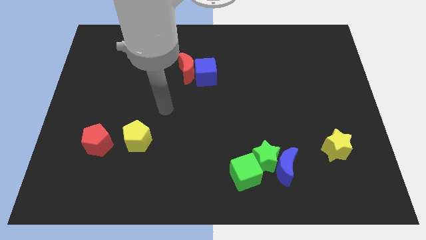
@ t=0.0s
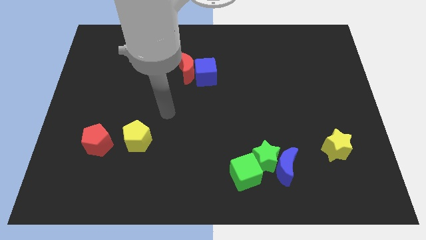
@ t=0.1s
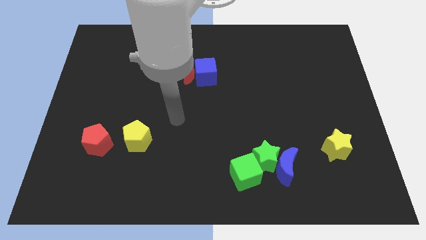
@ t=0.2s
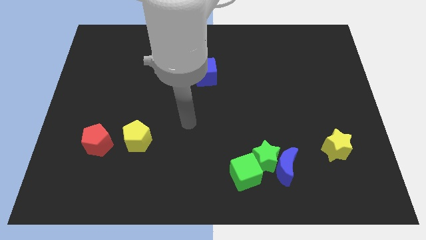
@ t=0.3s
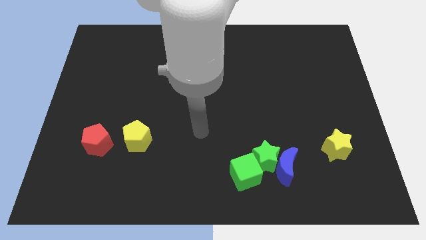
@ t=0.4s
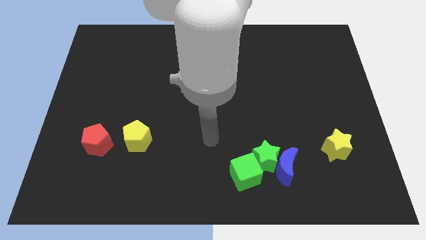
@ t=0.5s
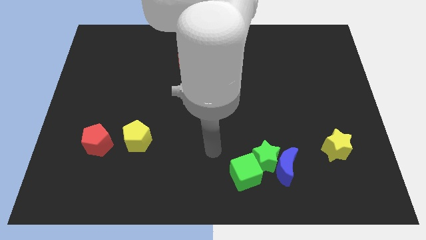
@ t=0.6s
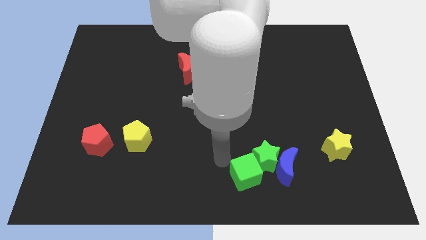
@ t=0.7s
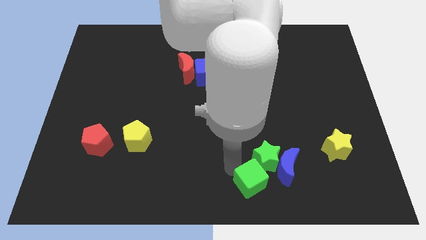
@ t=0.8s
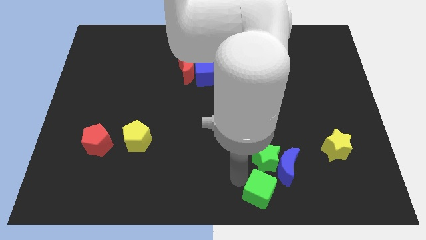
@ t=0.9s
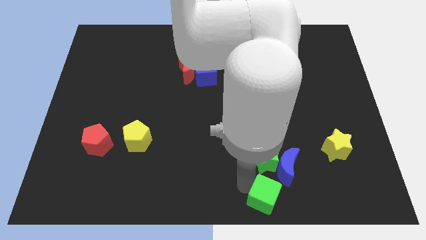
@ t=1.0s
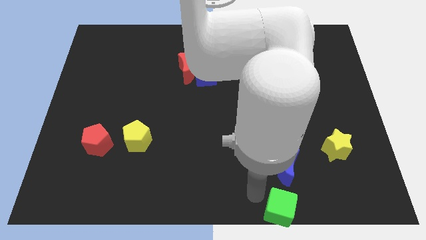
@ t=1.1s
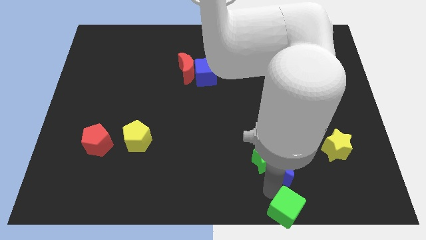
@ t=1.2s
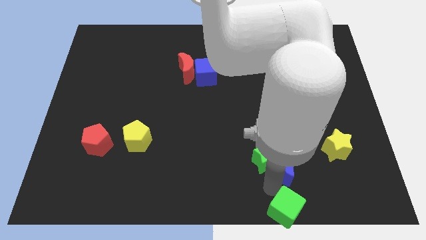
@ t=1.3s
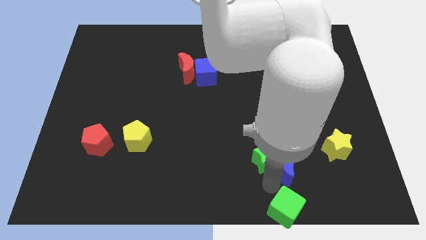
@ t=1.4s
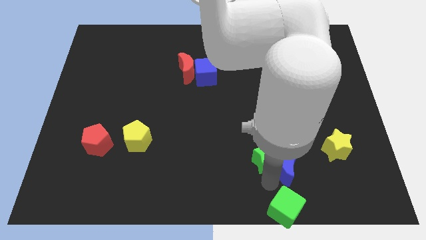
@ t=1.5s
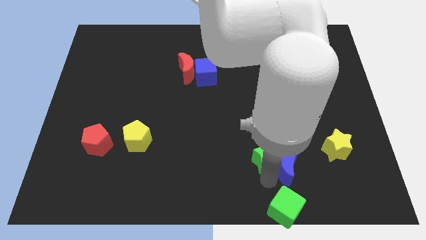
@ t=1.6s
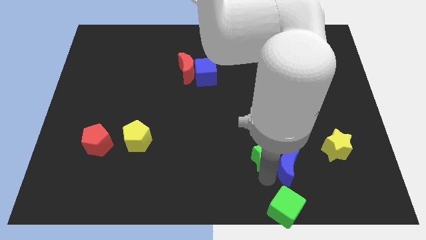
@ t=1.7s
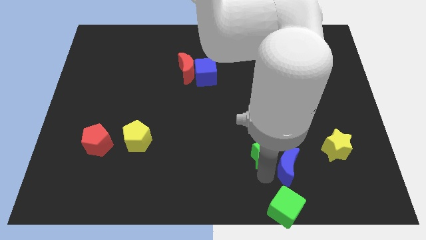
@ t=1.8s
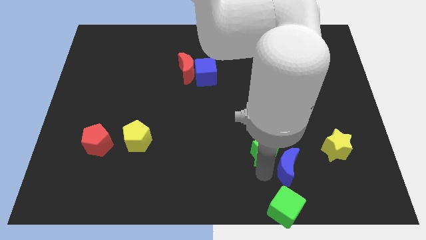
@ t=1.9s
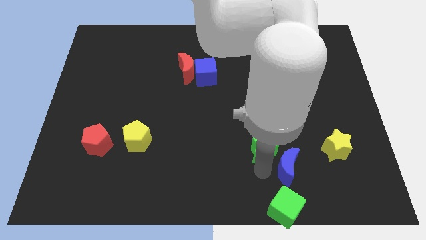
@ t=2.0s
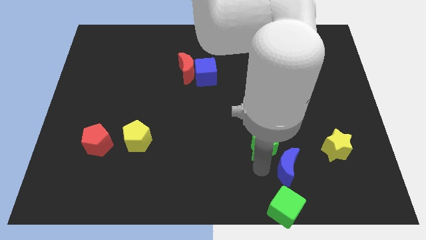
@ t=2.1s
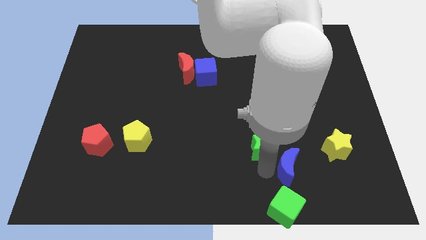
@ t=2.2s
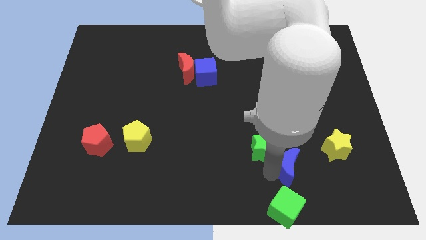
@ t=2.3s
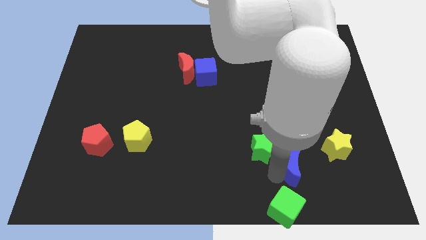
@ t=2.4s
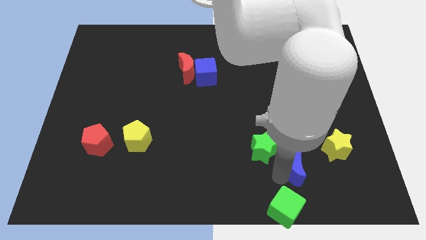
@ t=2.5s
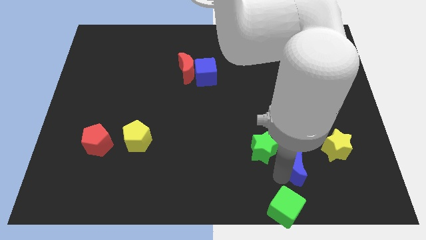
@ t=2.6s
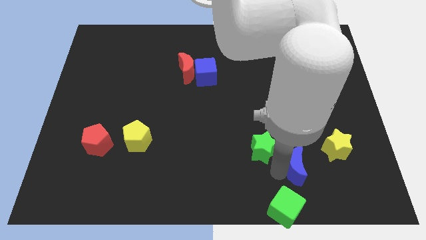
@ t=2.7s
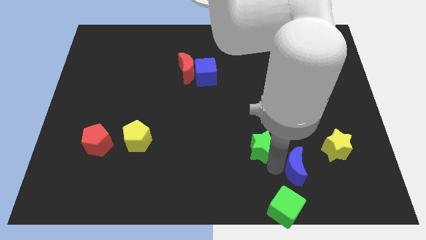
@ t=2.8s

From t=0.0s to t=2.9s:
pull the green star apart from the blue moon and green cube

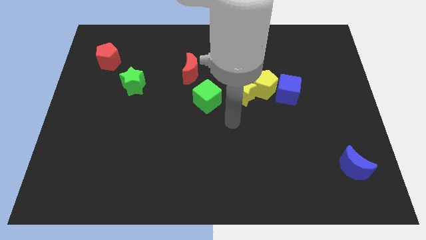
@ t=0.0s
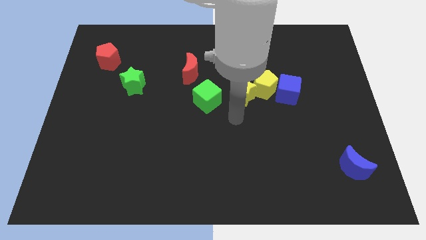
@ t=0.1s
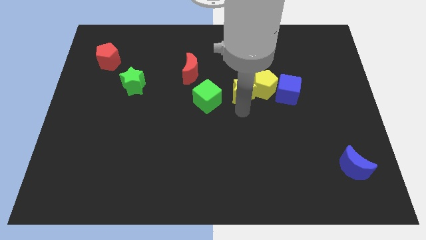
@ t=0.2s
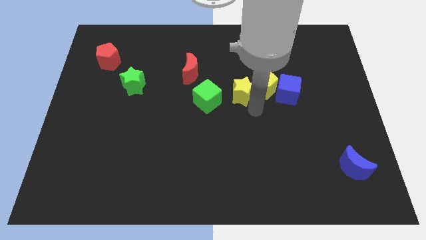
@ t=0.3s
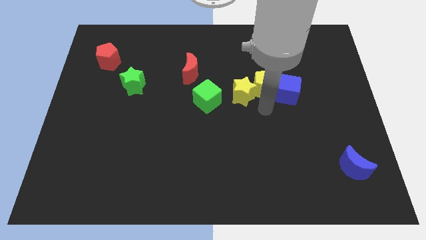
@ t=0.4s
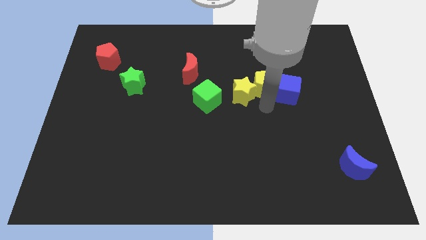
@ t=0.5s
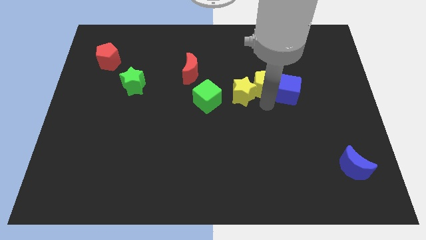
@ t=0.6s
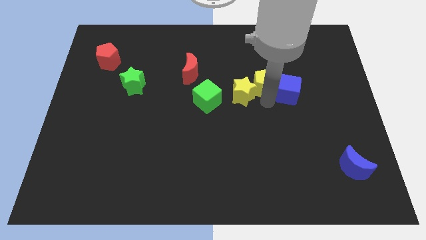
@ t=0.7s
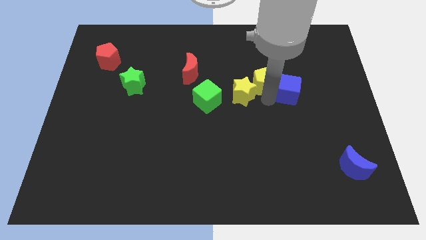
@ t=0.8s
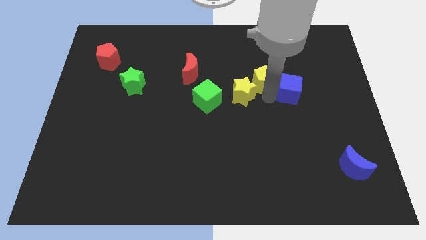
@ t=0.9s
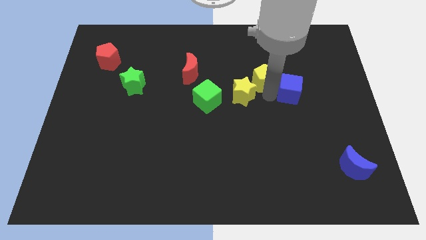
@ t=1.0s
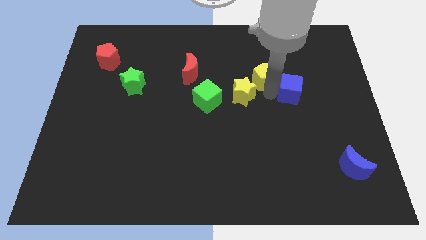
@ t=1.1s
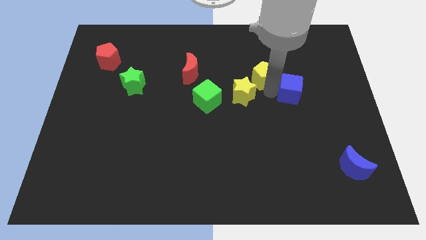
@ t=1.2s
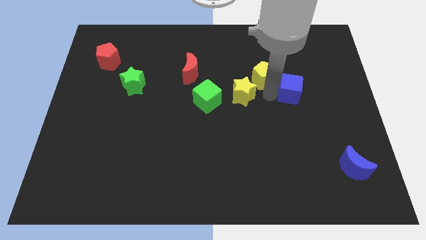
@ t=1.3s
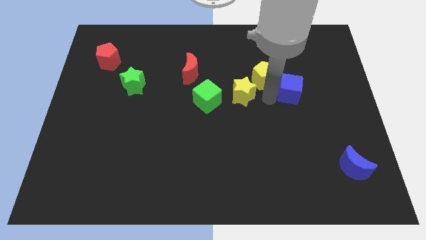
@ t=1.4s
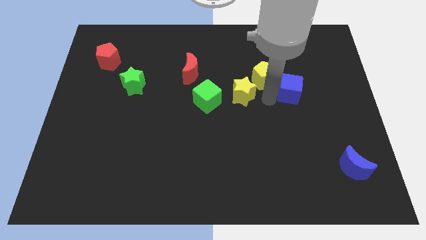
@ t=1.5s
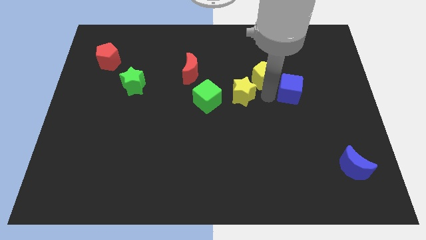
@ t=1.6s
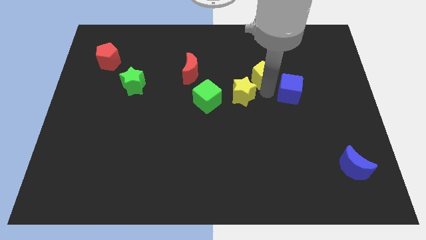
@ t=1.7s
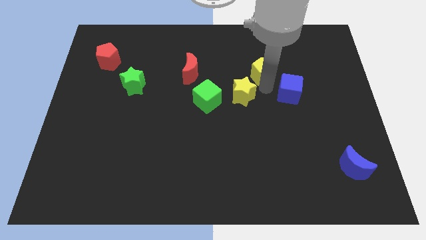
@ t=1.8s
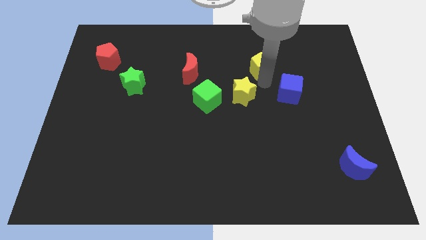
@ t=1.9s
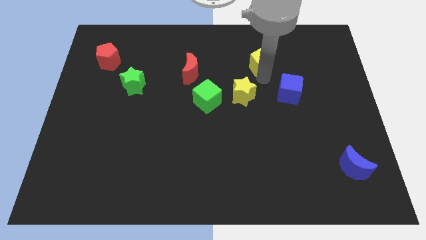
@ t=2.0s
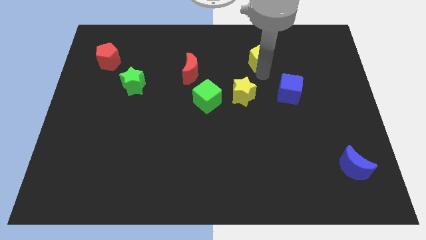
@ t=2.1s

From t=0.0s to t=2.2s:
move the yellow pentagon away from the yellow star and blue cube

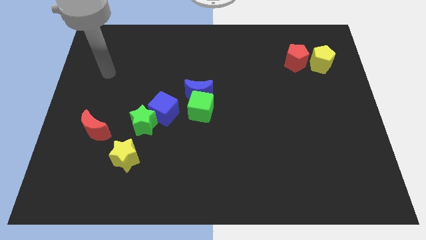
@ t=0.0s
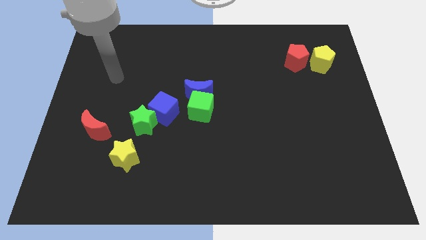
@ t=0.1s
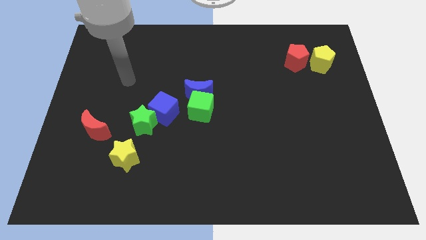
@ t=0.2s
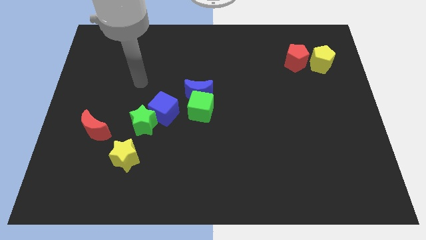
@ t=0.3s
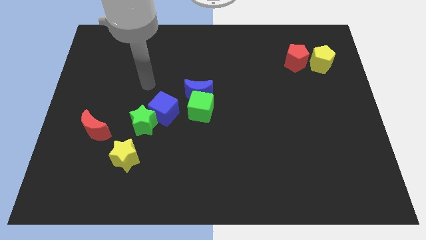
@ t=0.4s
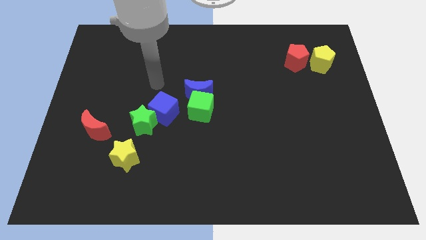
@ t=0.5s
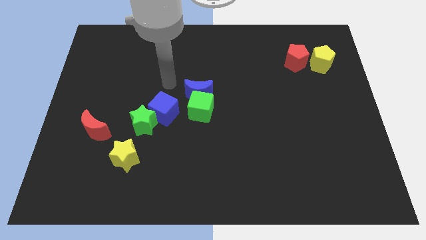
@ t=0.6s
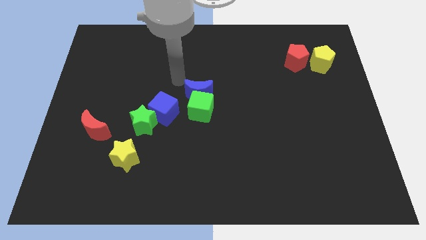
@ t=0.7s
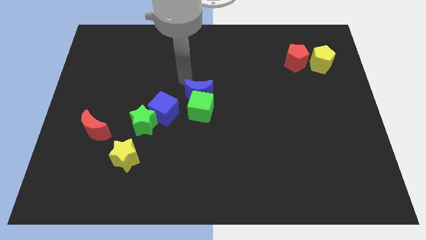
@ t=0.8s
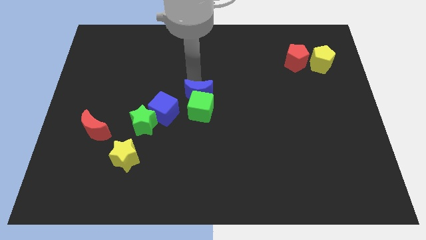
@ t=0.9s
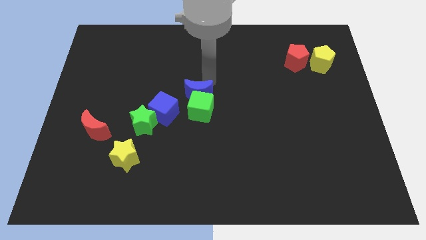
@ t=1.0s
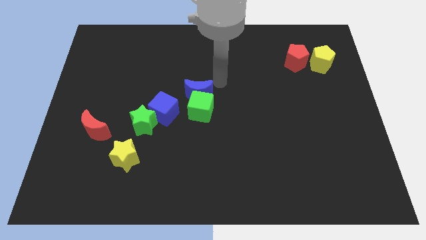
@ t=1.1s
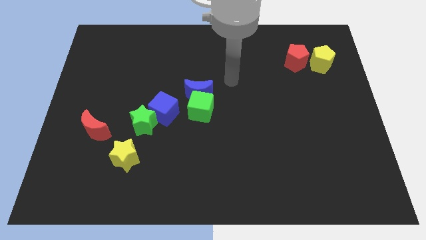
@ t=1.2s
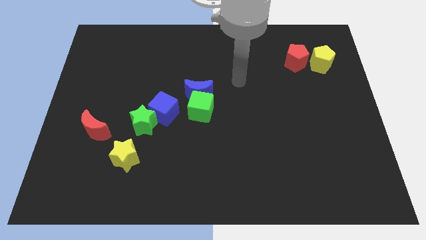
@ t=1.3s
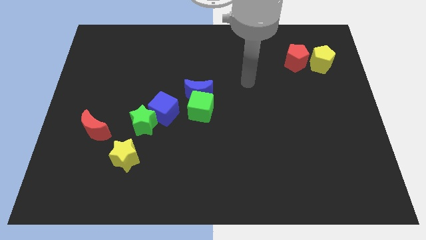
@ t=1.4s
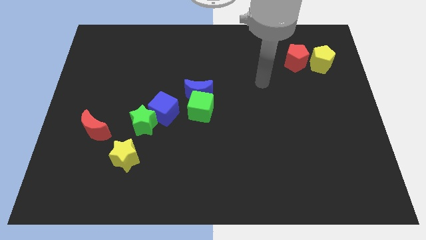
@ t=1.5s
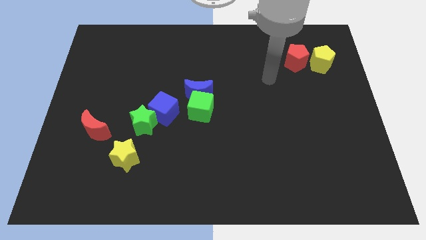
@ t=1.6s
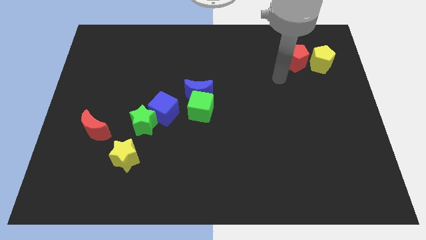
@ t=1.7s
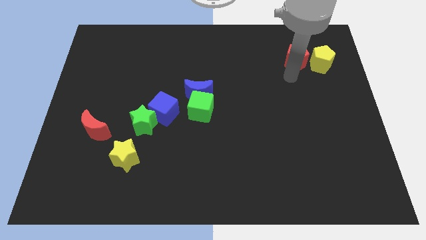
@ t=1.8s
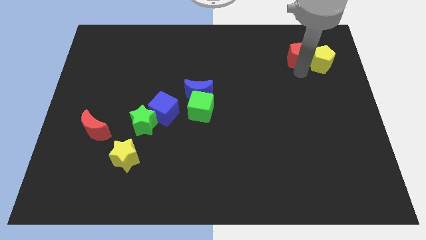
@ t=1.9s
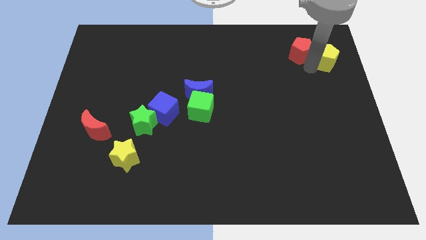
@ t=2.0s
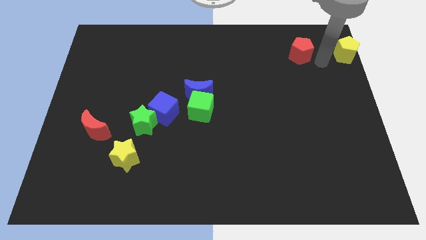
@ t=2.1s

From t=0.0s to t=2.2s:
pull the red pentagon apart from the yellow pentagon

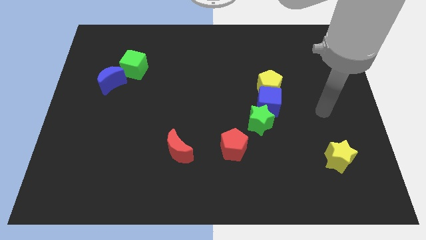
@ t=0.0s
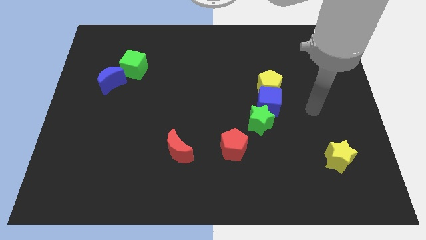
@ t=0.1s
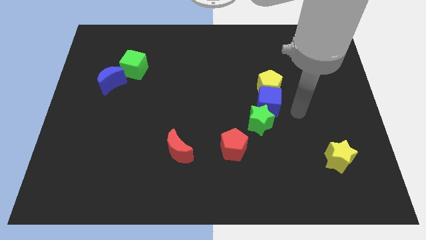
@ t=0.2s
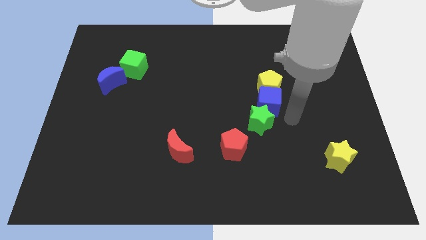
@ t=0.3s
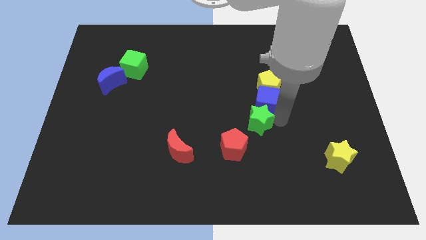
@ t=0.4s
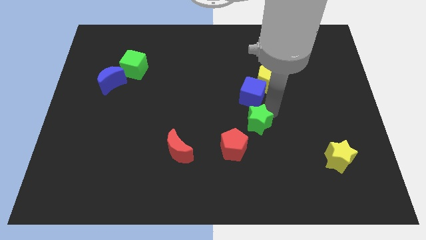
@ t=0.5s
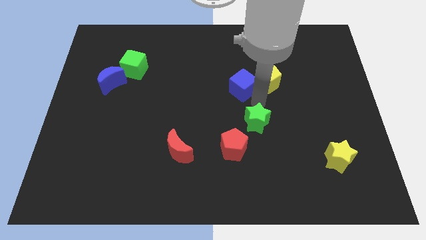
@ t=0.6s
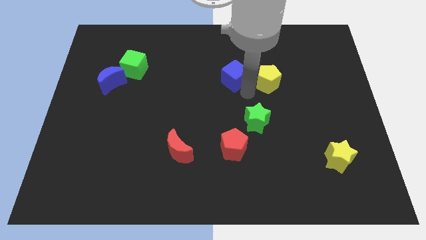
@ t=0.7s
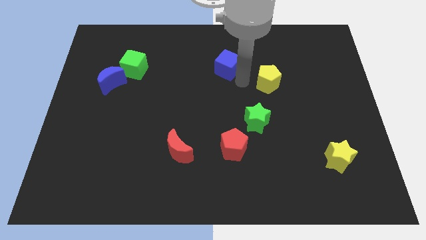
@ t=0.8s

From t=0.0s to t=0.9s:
separate the yellow pentagon from the blue cube

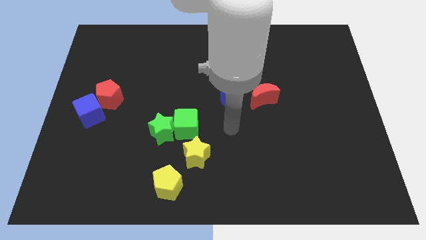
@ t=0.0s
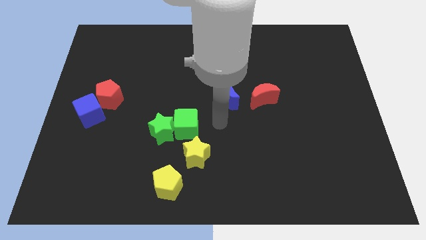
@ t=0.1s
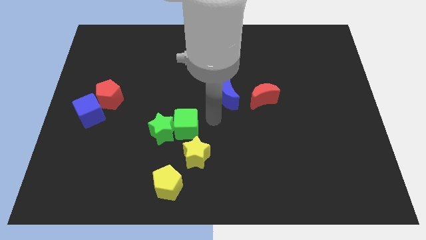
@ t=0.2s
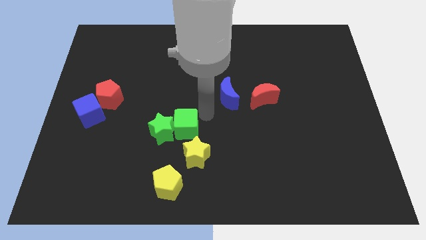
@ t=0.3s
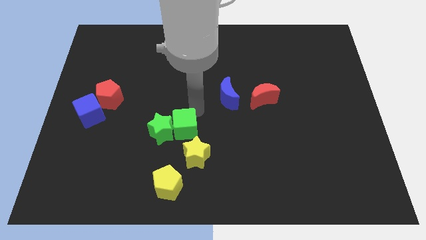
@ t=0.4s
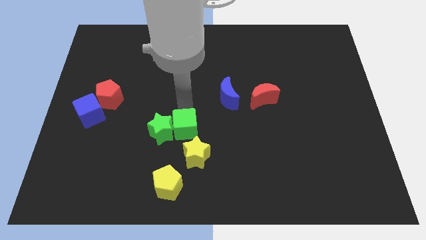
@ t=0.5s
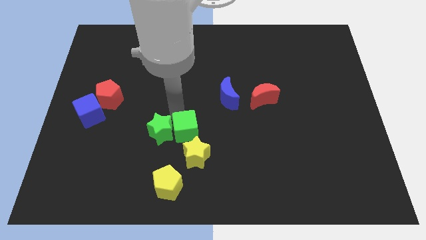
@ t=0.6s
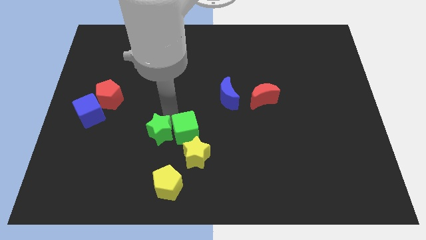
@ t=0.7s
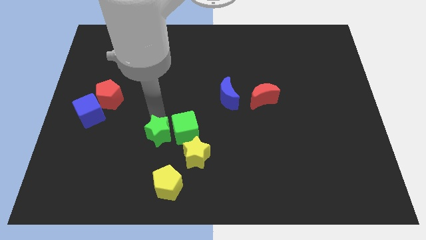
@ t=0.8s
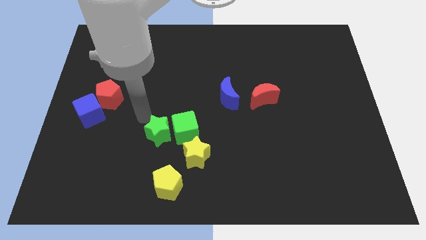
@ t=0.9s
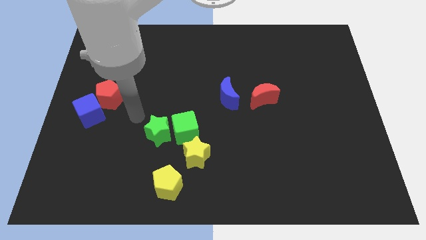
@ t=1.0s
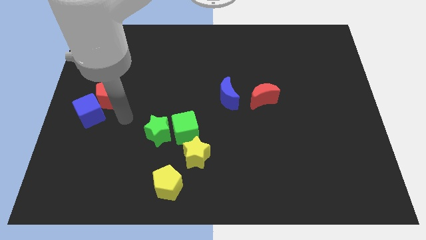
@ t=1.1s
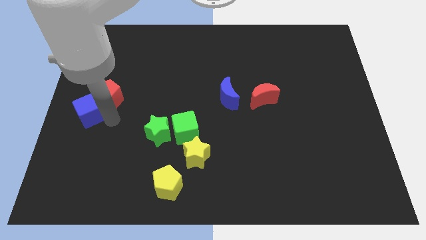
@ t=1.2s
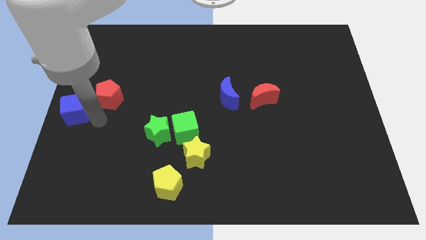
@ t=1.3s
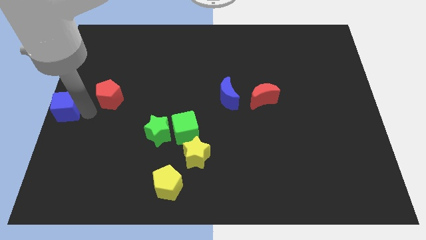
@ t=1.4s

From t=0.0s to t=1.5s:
pull the red pentagon apart from the blue cube
